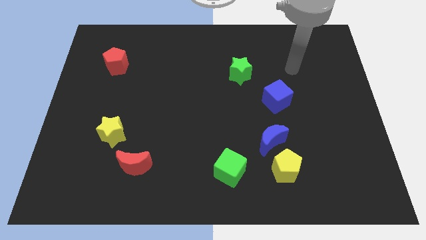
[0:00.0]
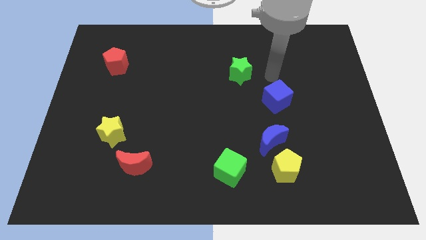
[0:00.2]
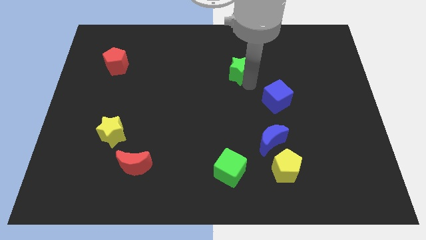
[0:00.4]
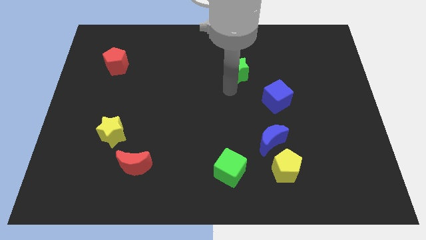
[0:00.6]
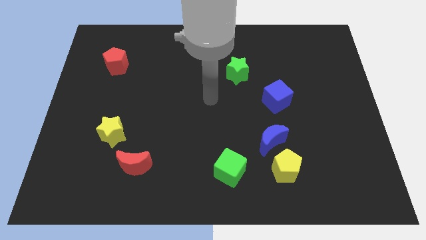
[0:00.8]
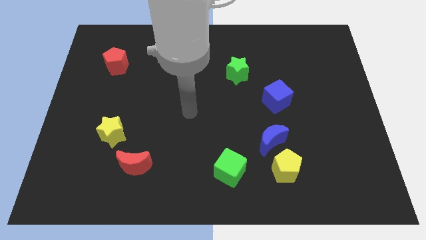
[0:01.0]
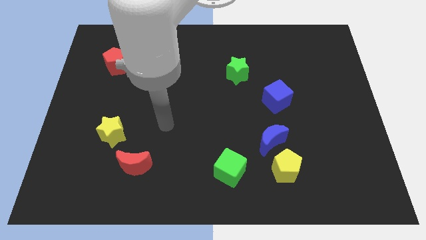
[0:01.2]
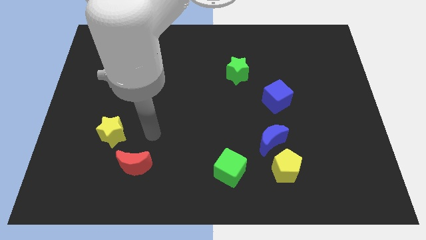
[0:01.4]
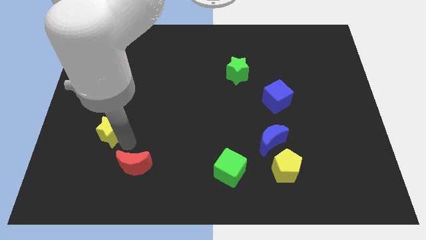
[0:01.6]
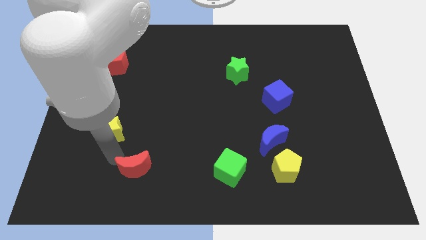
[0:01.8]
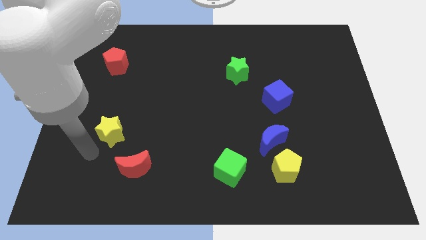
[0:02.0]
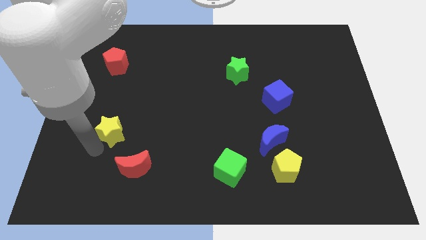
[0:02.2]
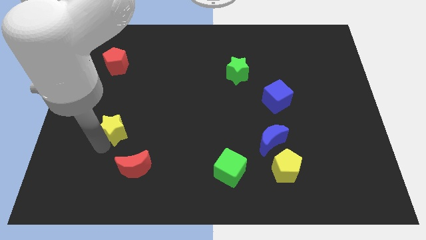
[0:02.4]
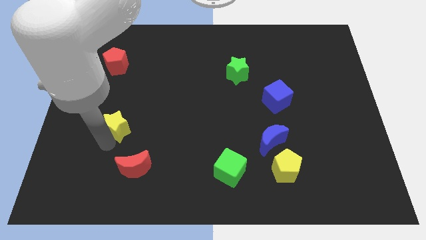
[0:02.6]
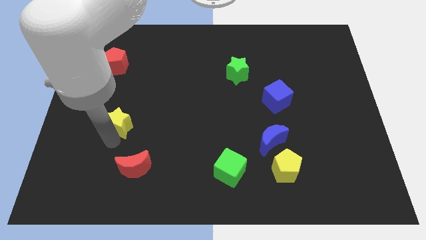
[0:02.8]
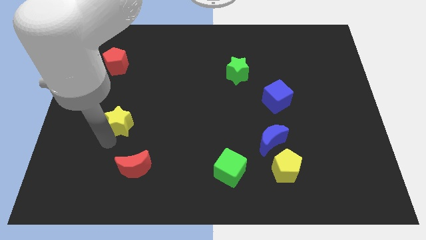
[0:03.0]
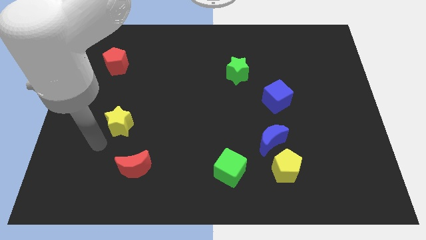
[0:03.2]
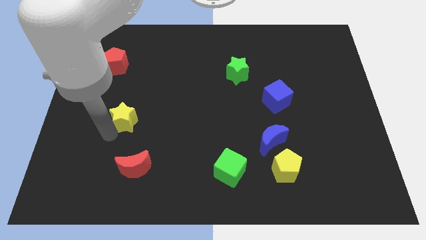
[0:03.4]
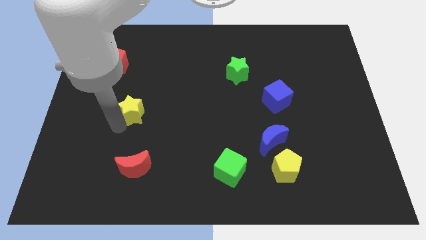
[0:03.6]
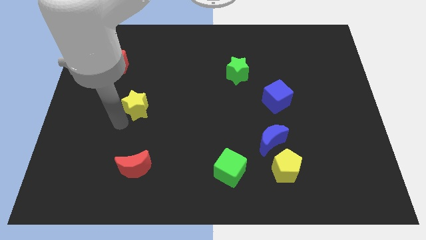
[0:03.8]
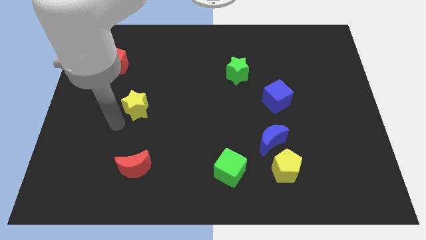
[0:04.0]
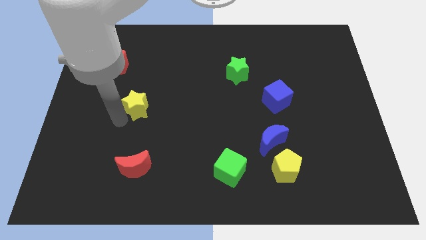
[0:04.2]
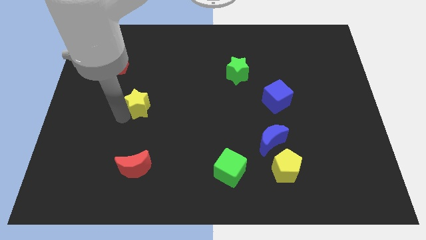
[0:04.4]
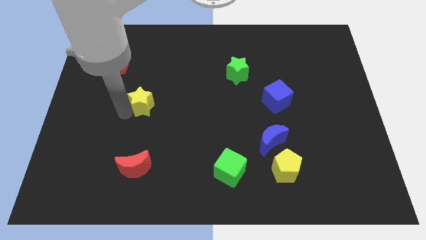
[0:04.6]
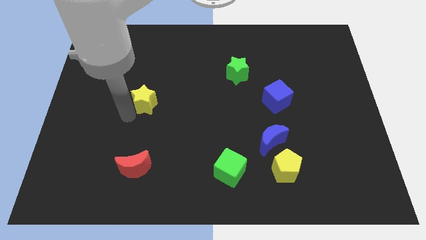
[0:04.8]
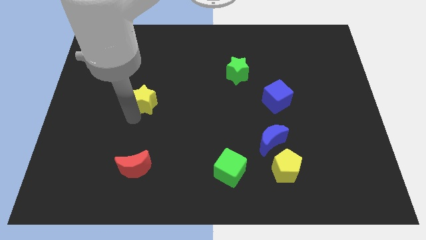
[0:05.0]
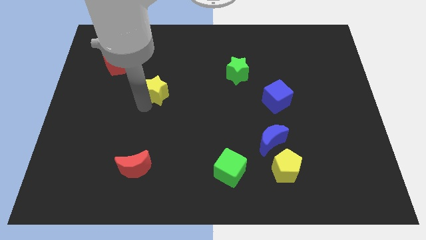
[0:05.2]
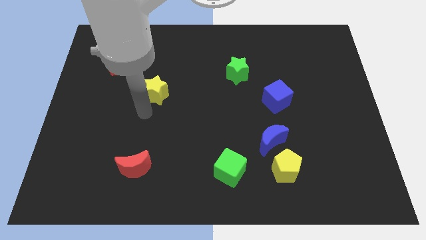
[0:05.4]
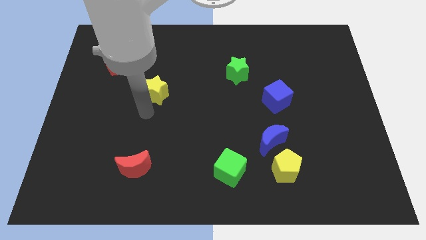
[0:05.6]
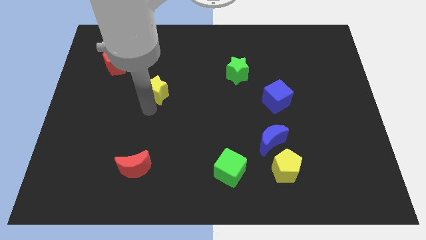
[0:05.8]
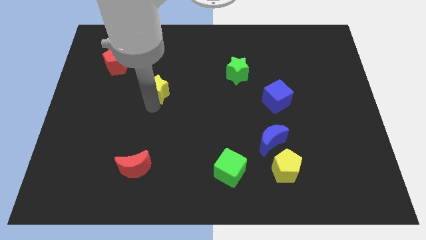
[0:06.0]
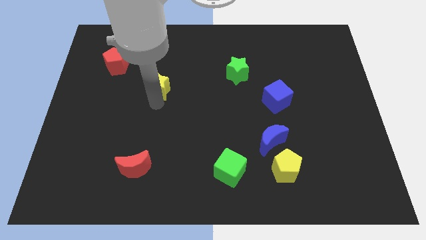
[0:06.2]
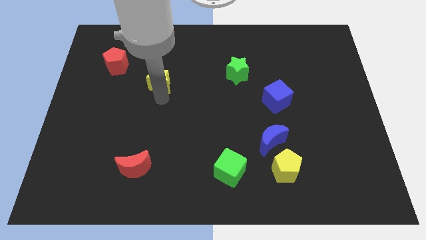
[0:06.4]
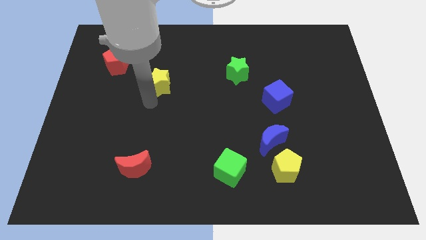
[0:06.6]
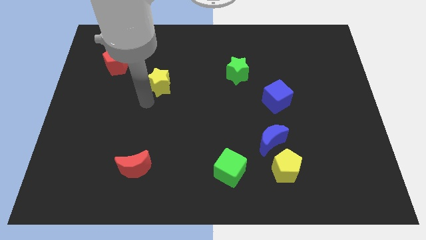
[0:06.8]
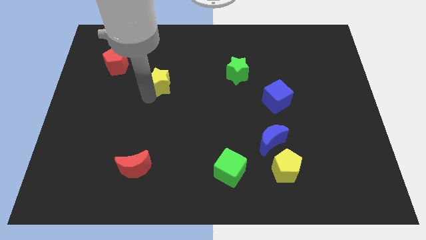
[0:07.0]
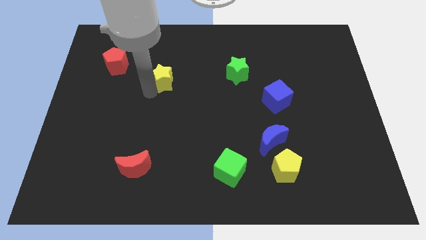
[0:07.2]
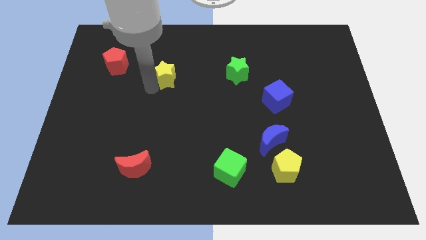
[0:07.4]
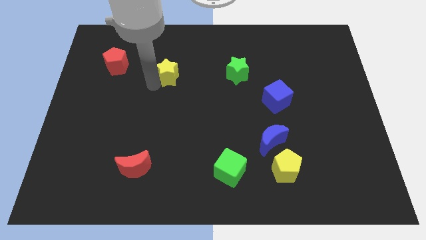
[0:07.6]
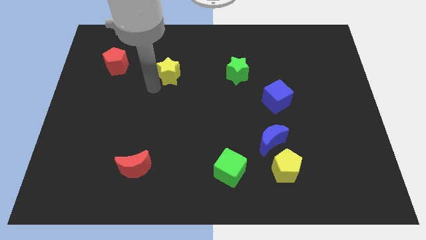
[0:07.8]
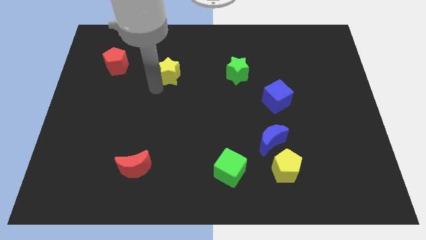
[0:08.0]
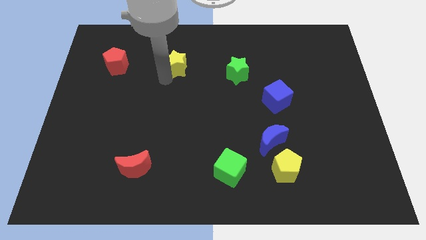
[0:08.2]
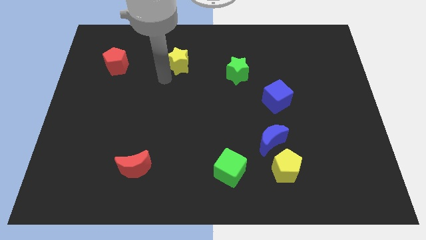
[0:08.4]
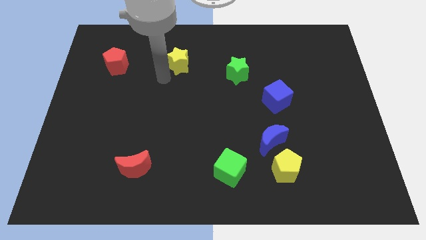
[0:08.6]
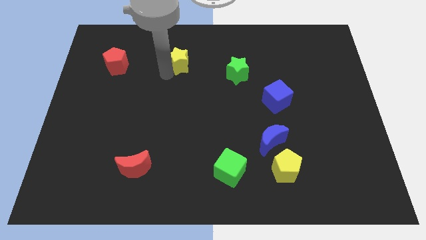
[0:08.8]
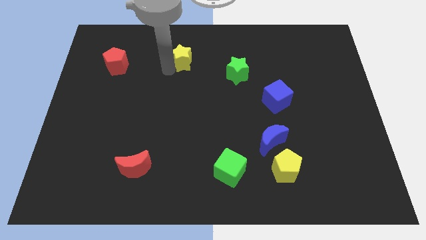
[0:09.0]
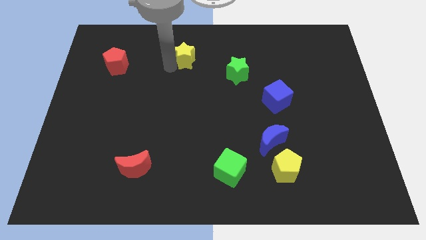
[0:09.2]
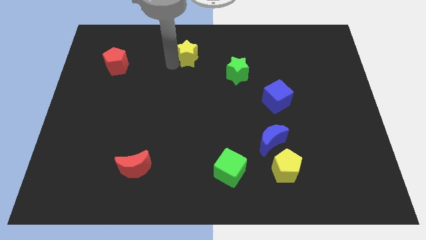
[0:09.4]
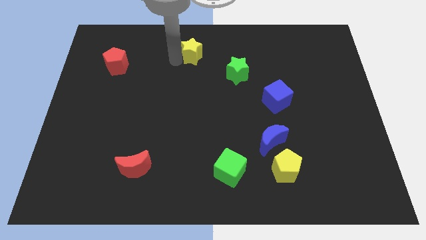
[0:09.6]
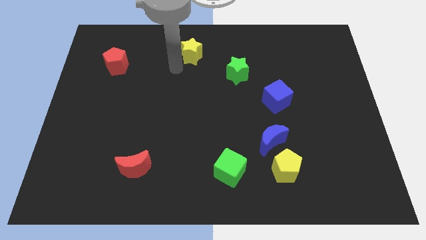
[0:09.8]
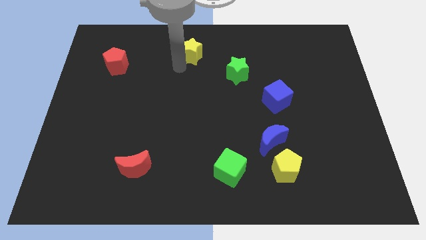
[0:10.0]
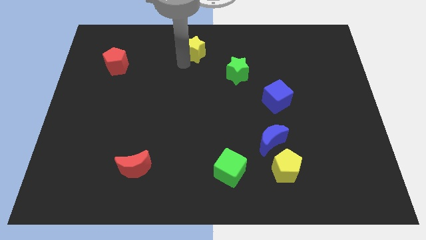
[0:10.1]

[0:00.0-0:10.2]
put the yellow star to the top

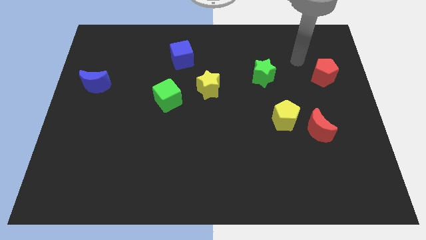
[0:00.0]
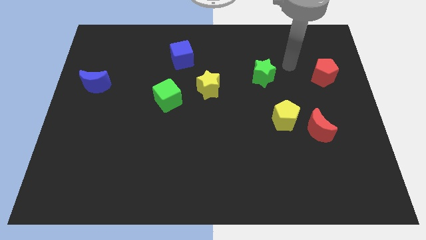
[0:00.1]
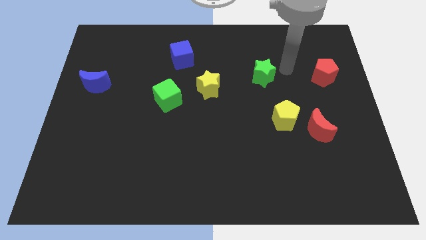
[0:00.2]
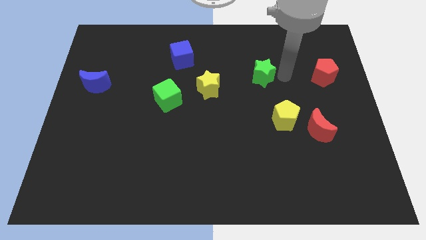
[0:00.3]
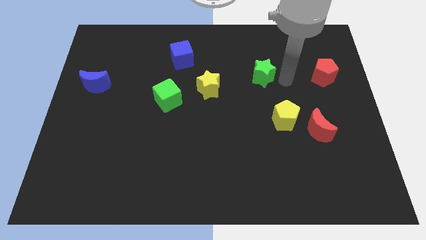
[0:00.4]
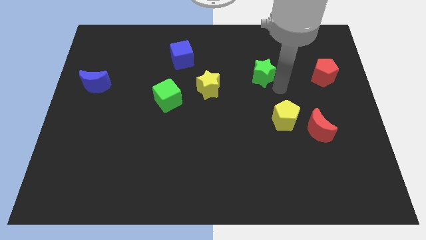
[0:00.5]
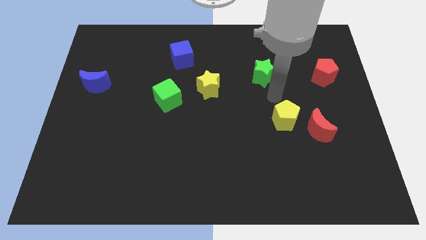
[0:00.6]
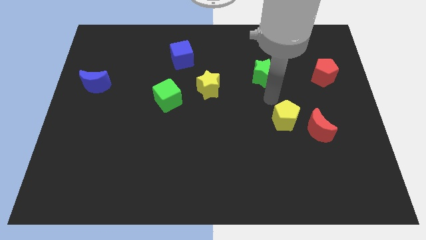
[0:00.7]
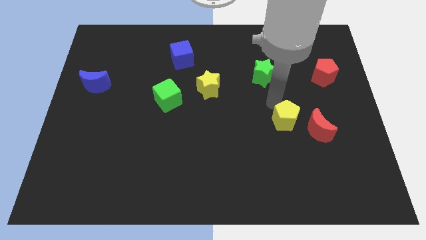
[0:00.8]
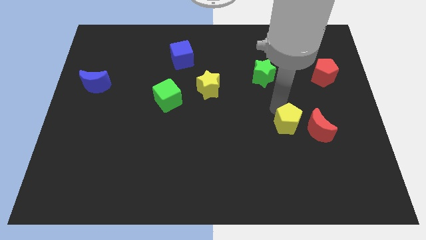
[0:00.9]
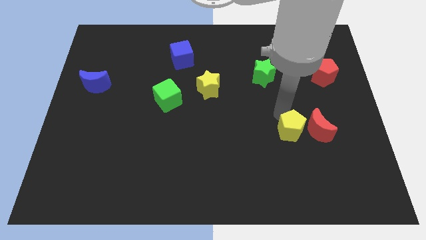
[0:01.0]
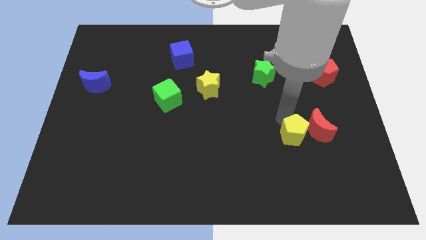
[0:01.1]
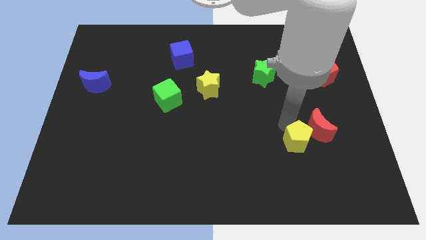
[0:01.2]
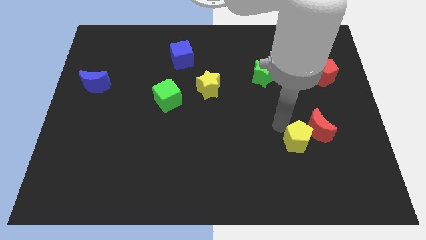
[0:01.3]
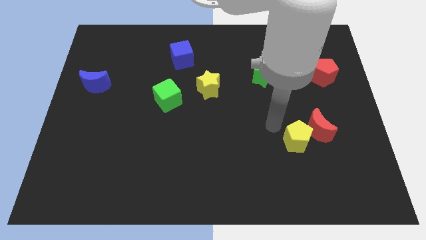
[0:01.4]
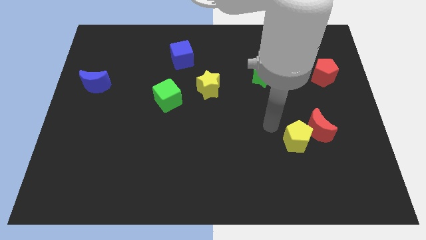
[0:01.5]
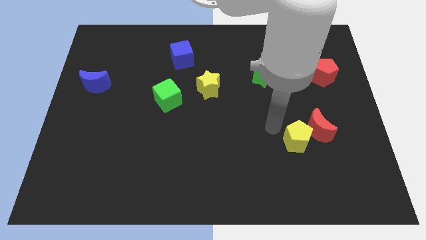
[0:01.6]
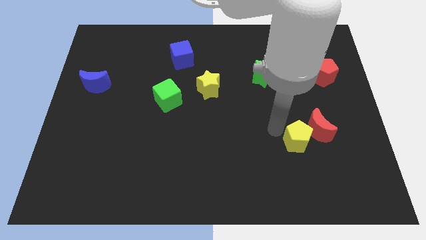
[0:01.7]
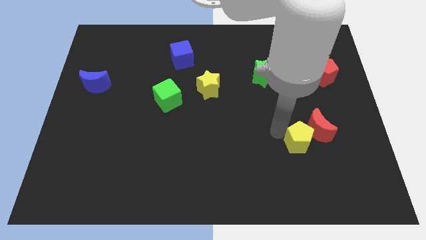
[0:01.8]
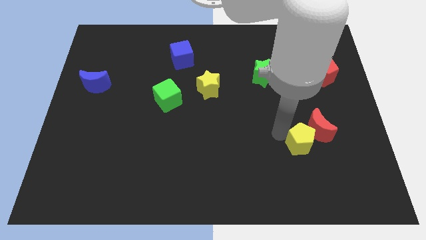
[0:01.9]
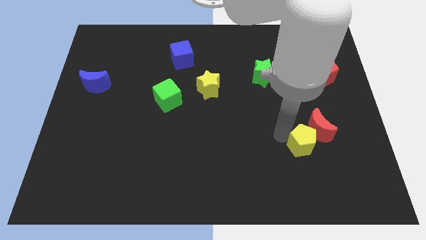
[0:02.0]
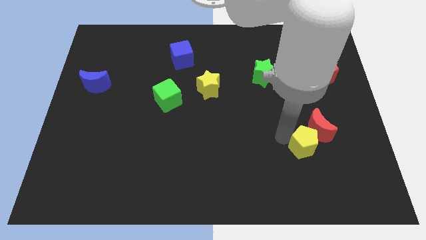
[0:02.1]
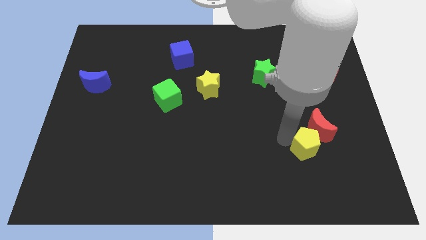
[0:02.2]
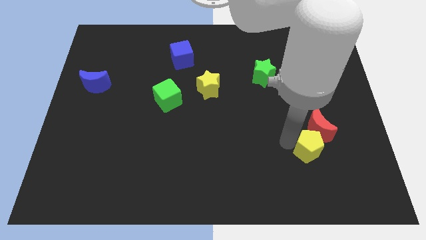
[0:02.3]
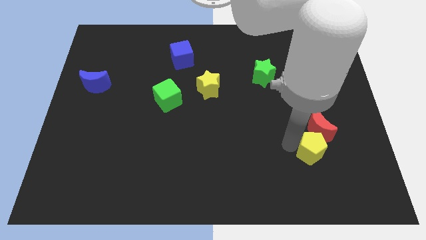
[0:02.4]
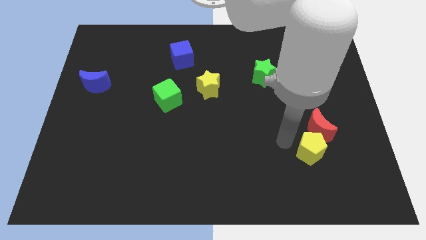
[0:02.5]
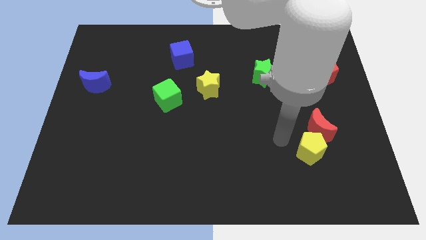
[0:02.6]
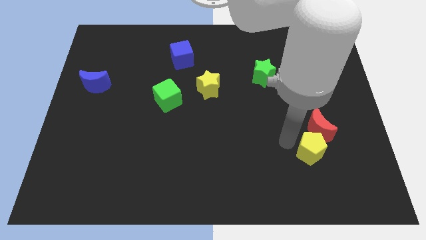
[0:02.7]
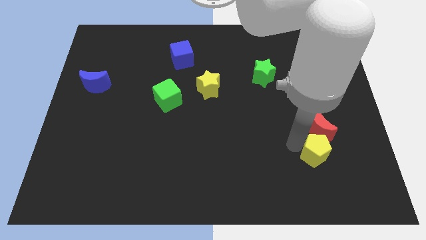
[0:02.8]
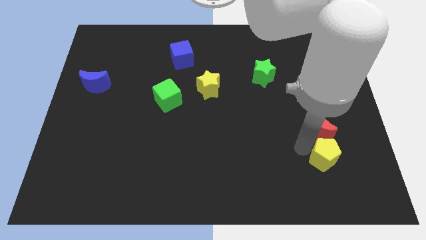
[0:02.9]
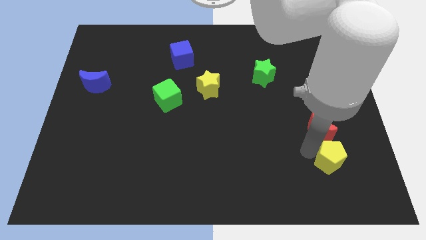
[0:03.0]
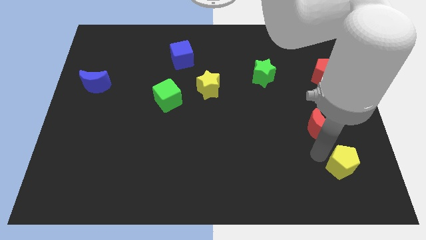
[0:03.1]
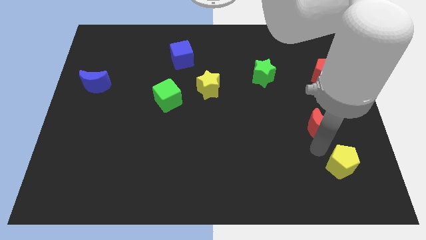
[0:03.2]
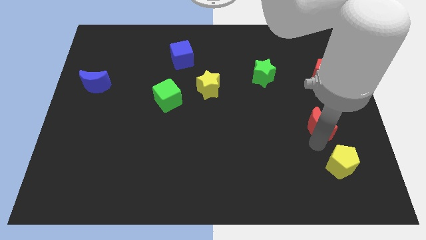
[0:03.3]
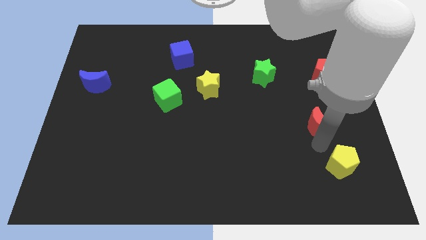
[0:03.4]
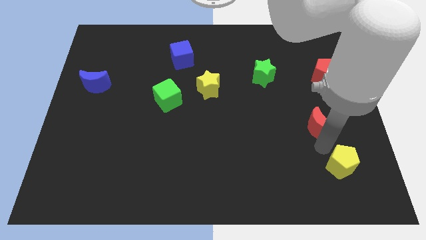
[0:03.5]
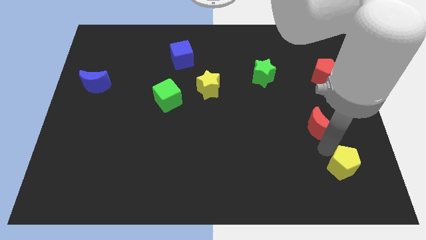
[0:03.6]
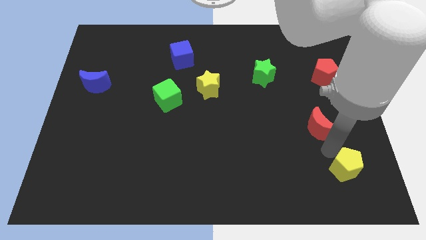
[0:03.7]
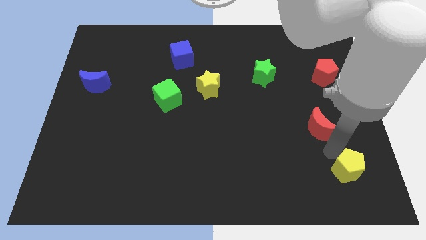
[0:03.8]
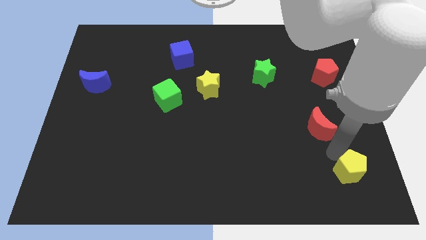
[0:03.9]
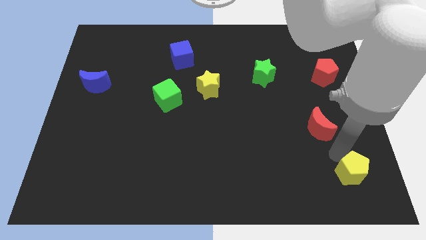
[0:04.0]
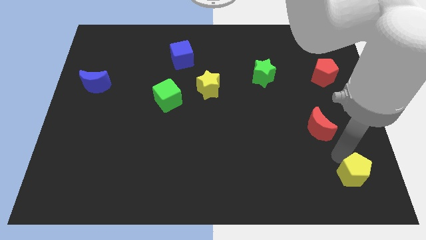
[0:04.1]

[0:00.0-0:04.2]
put the yellow pentagon to the lower right corner
